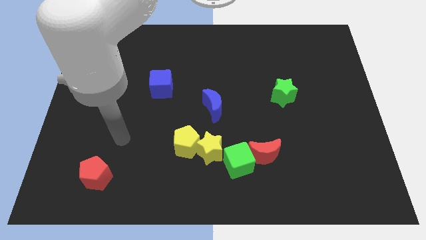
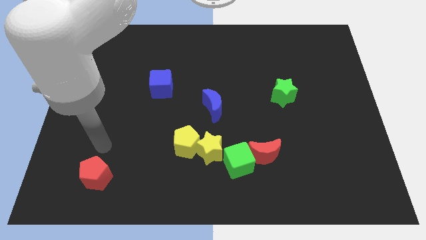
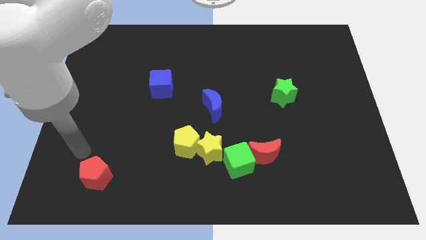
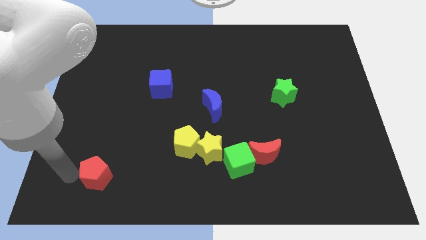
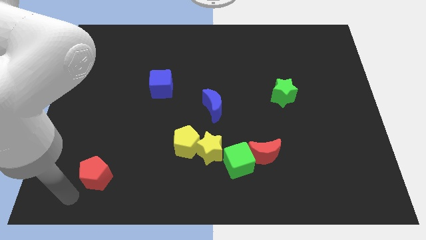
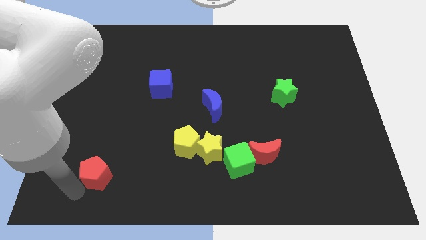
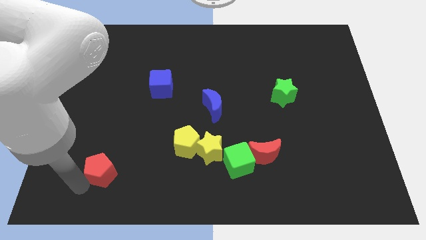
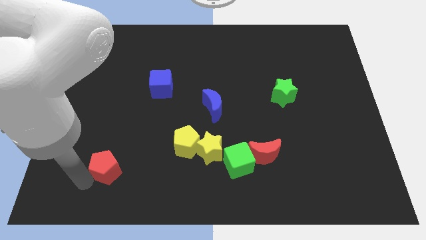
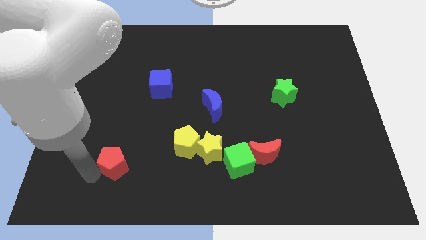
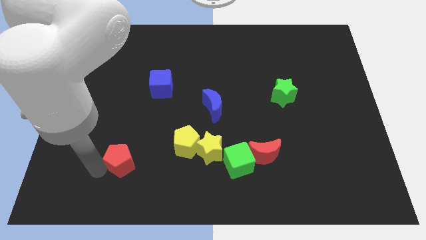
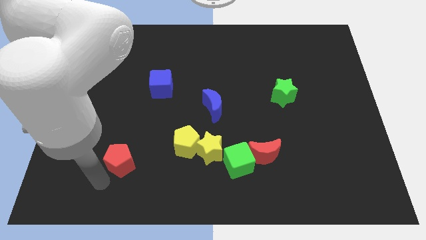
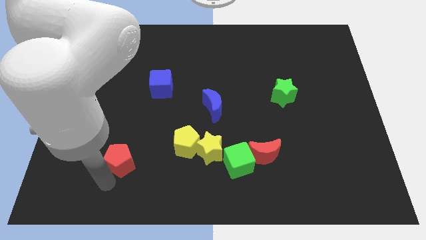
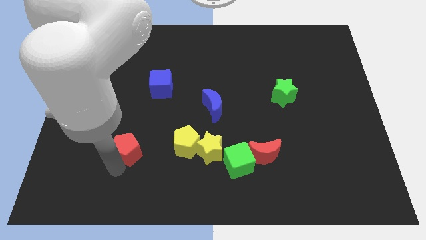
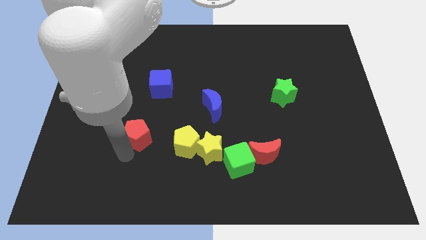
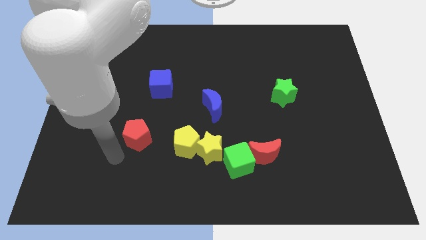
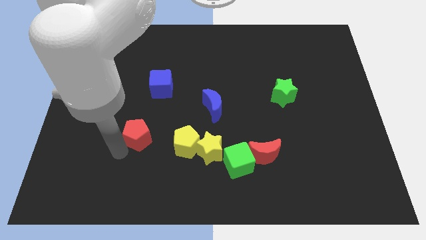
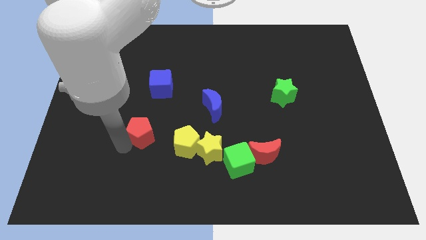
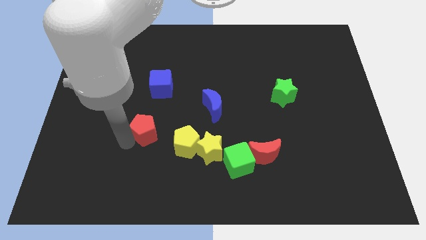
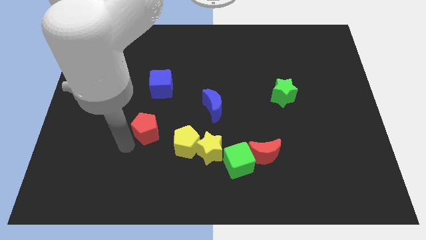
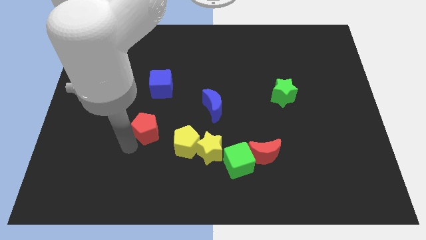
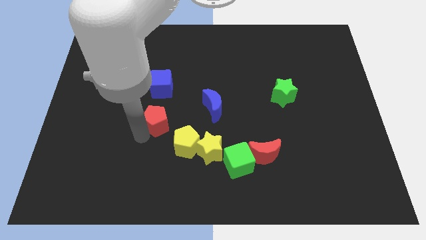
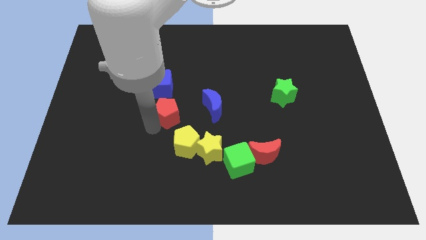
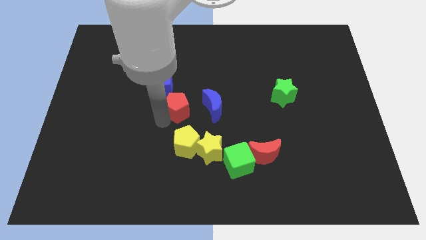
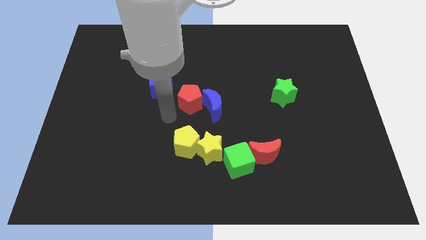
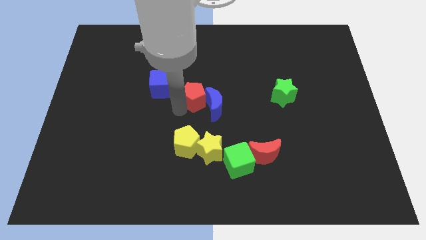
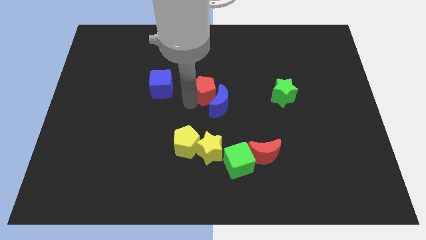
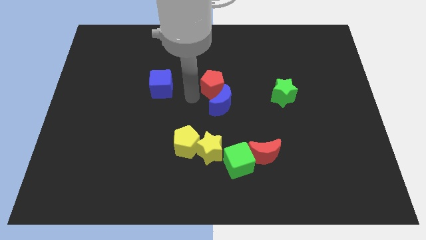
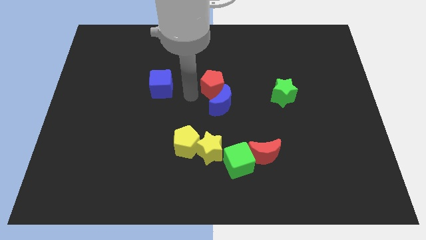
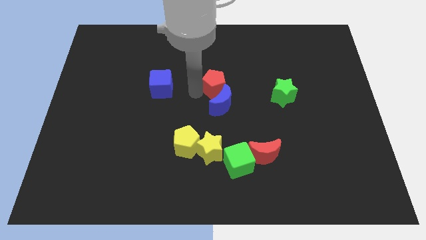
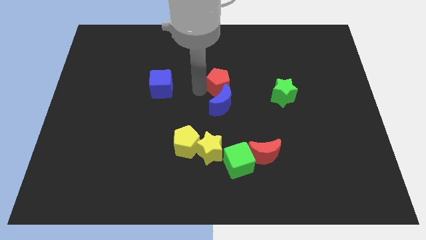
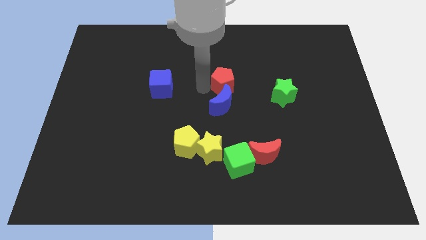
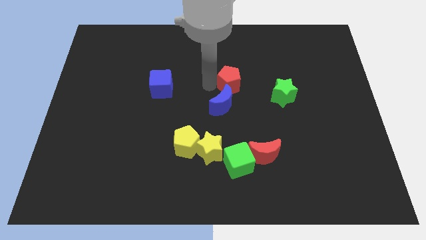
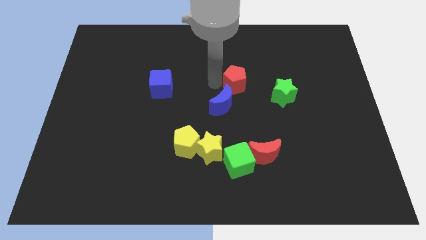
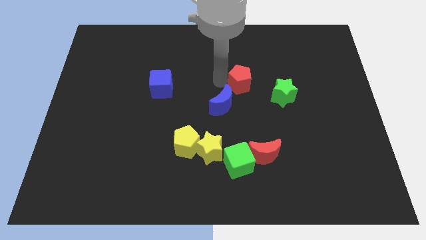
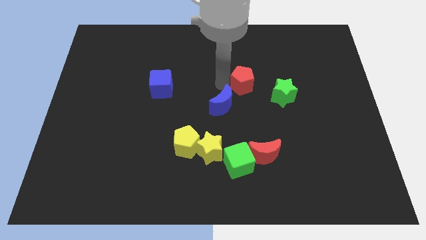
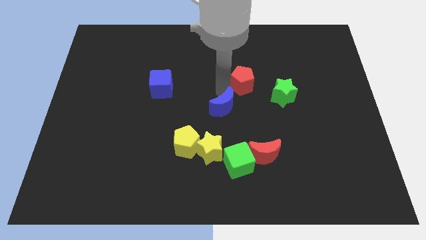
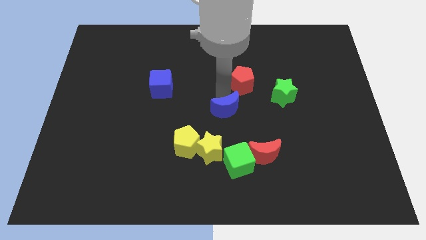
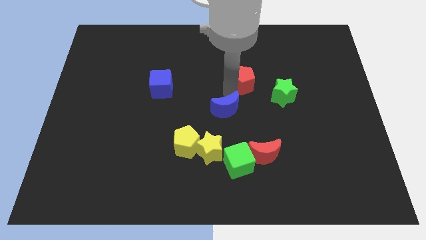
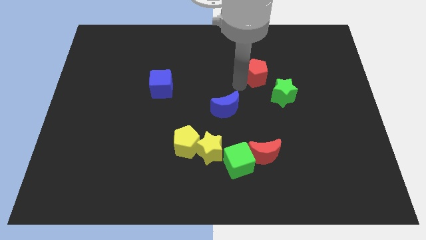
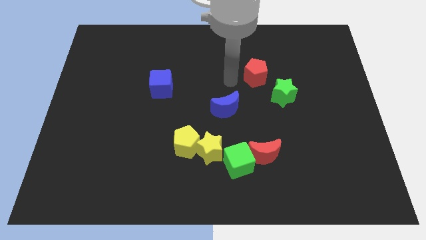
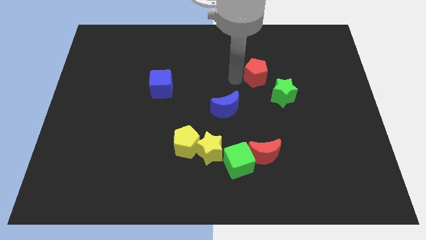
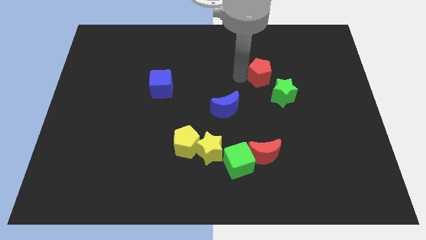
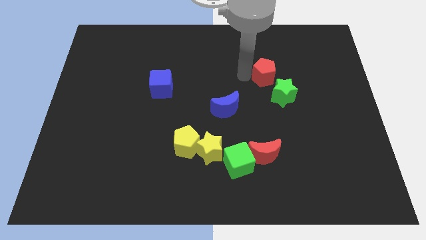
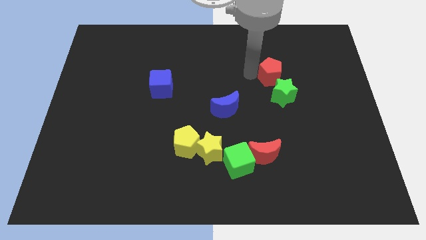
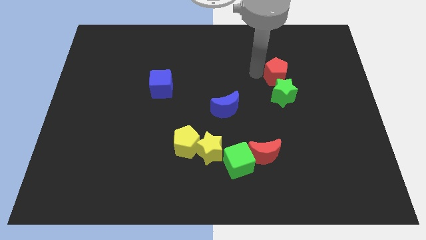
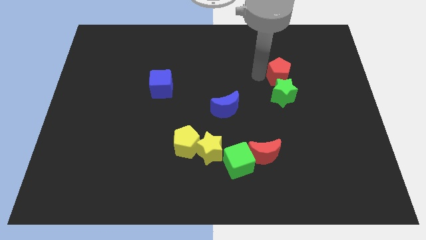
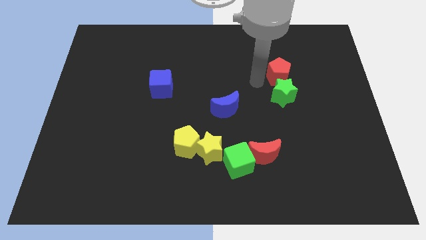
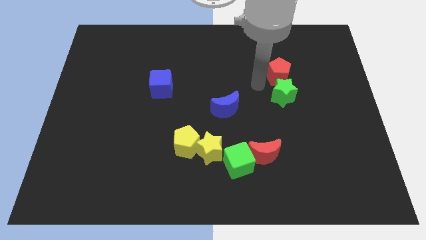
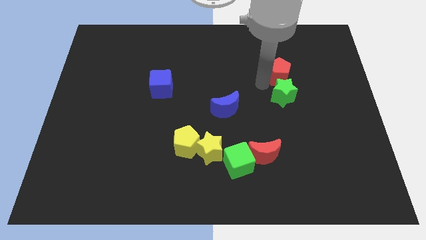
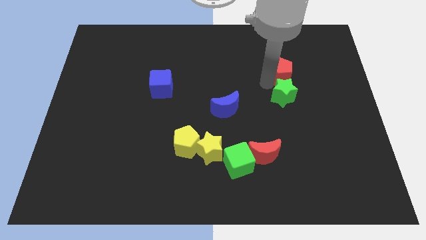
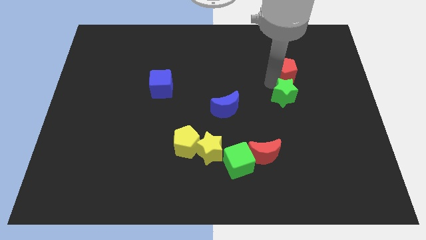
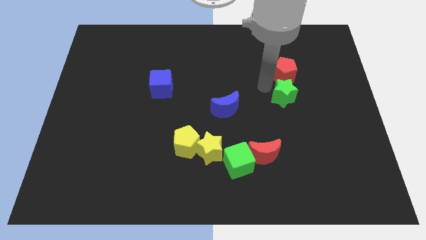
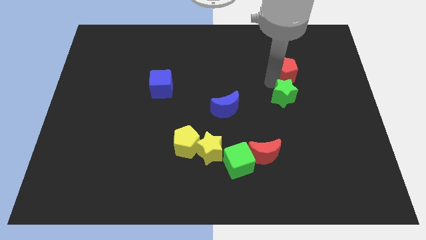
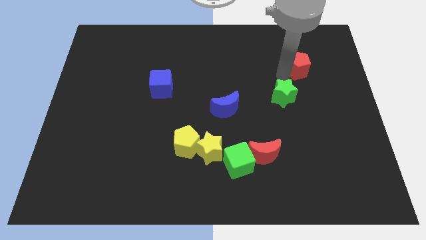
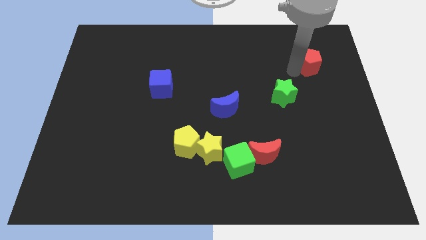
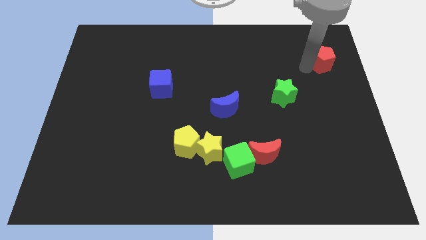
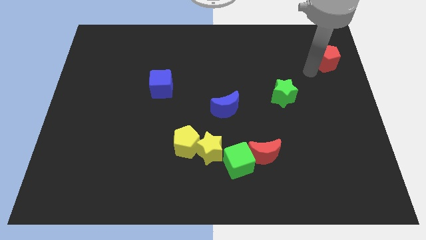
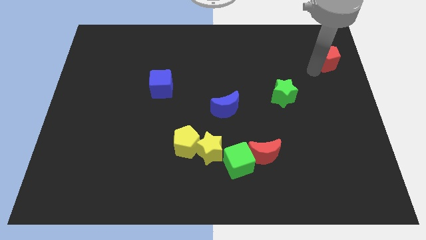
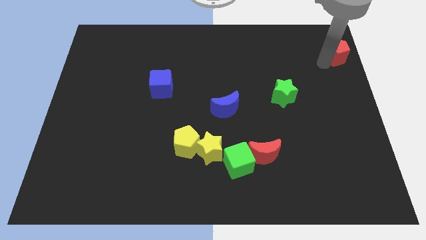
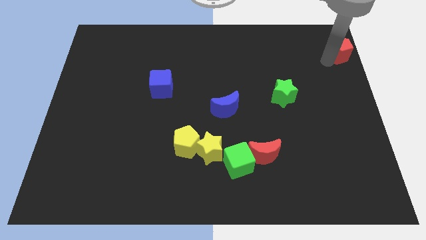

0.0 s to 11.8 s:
put the red pentagon to the upper right corner
